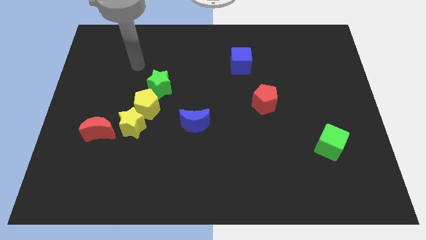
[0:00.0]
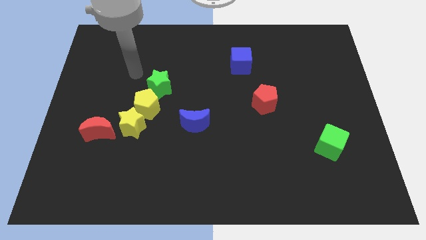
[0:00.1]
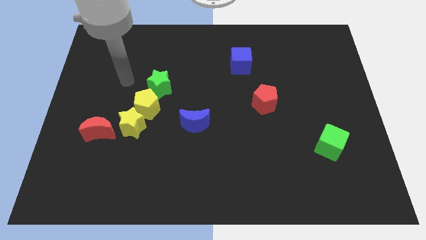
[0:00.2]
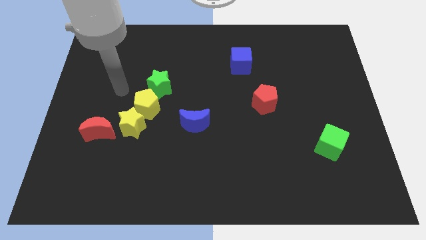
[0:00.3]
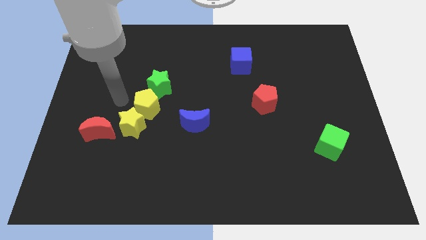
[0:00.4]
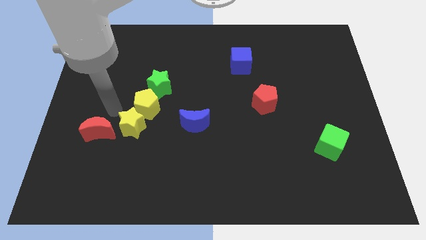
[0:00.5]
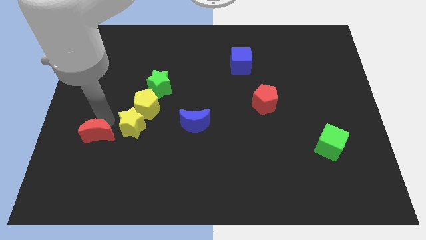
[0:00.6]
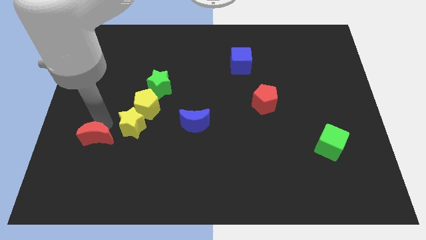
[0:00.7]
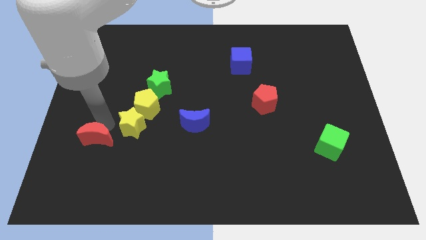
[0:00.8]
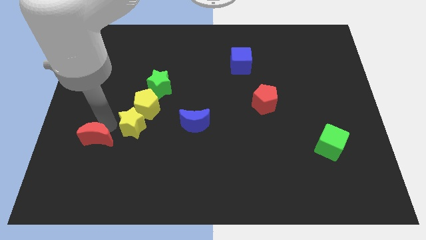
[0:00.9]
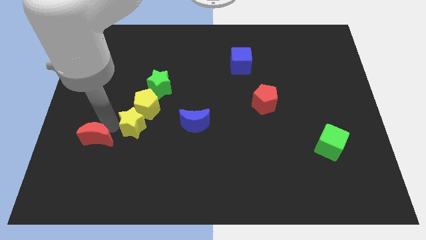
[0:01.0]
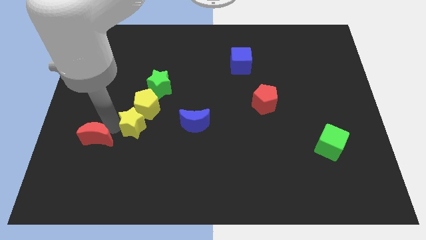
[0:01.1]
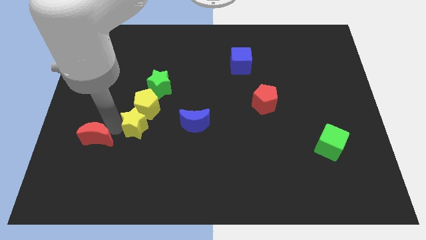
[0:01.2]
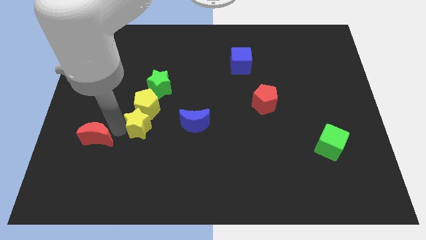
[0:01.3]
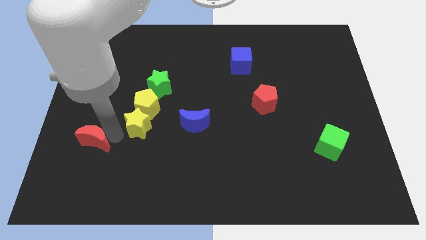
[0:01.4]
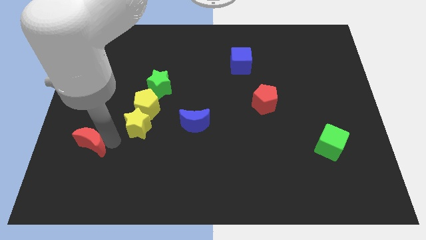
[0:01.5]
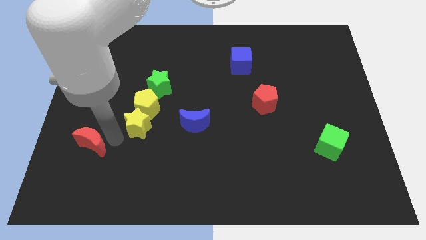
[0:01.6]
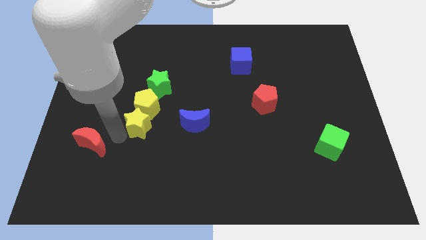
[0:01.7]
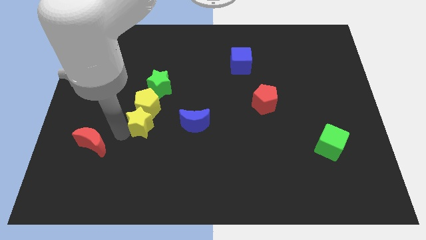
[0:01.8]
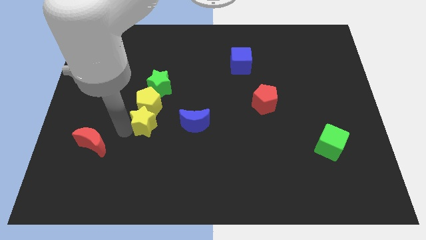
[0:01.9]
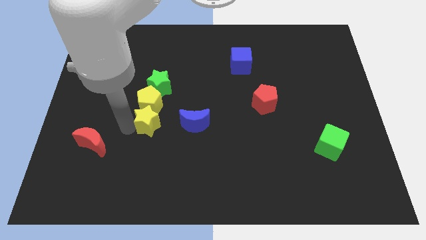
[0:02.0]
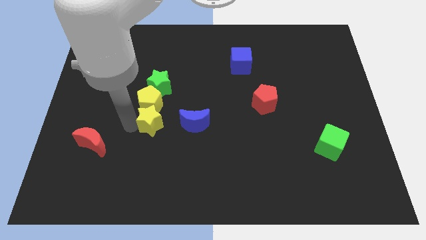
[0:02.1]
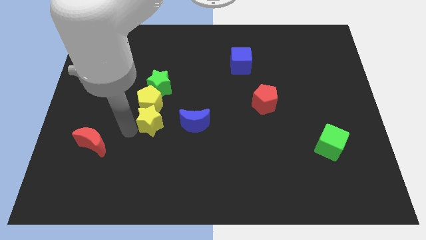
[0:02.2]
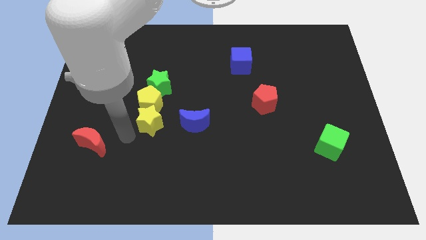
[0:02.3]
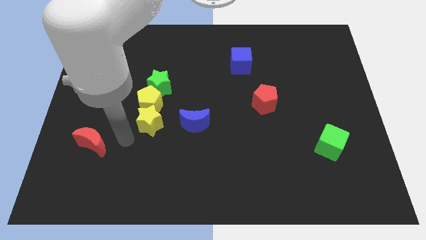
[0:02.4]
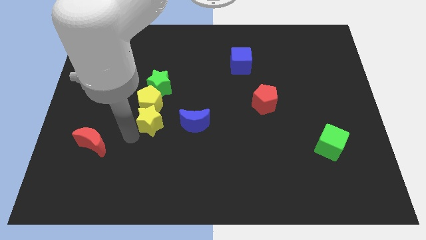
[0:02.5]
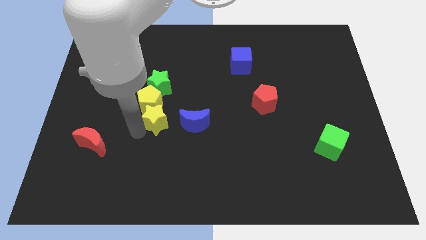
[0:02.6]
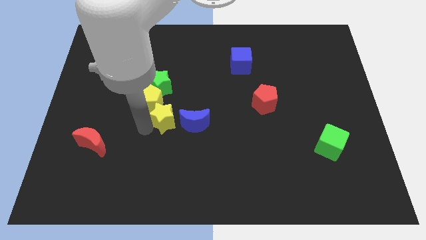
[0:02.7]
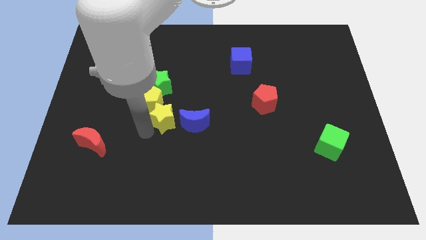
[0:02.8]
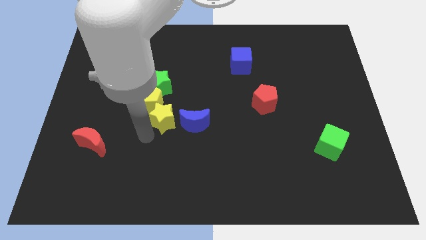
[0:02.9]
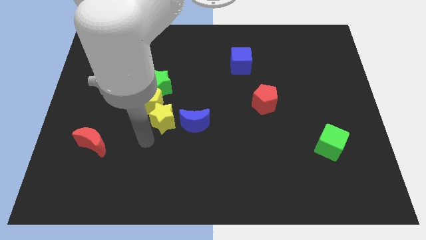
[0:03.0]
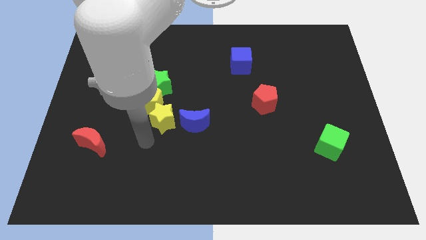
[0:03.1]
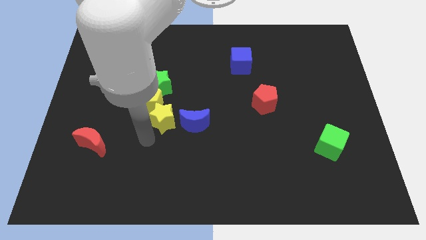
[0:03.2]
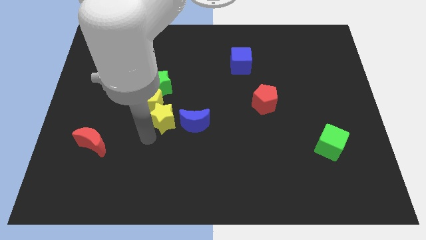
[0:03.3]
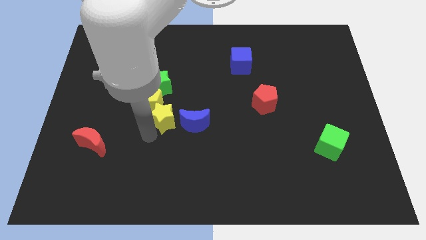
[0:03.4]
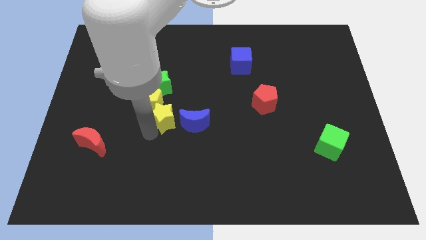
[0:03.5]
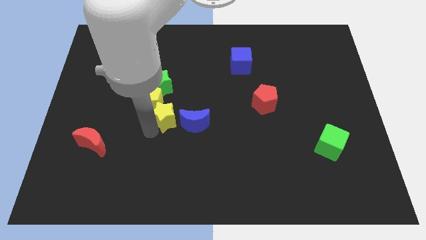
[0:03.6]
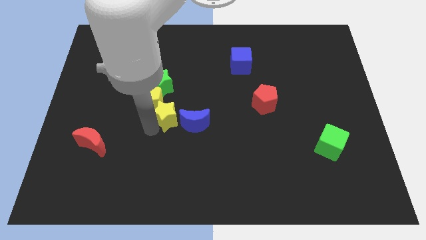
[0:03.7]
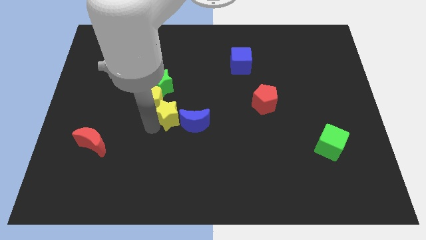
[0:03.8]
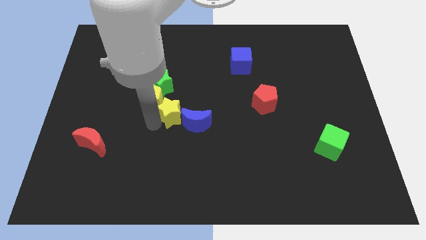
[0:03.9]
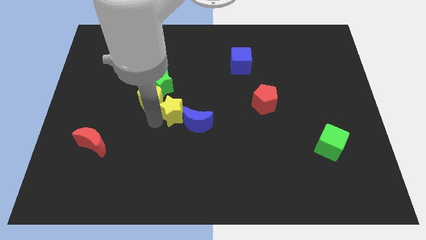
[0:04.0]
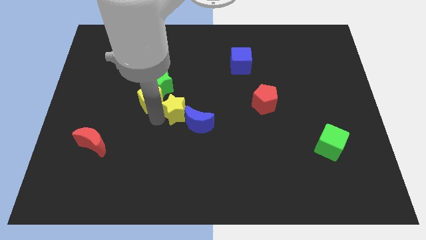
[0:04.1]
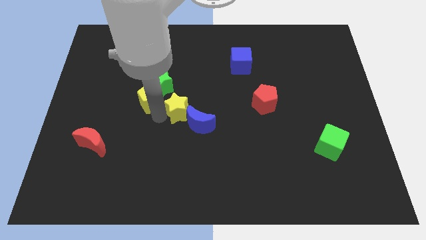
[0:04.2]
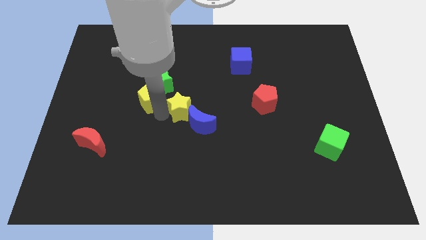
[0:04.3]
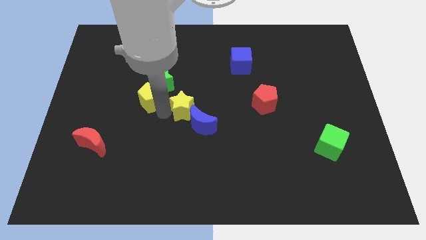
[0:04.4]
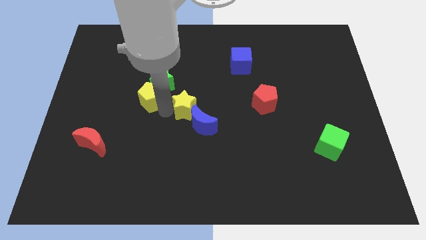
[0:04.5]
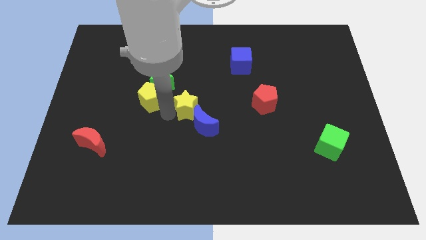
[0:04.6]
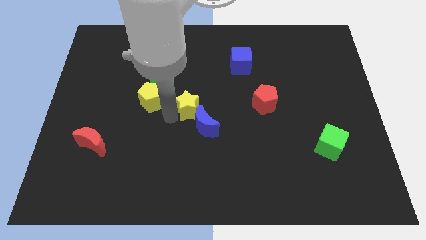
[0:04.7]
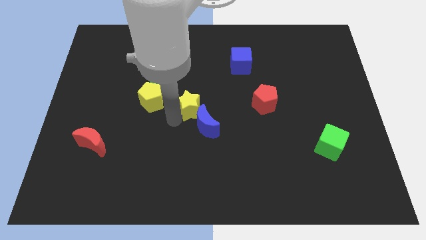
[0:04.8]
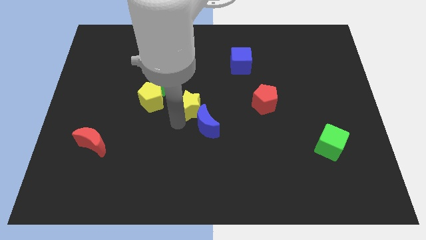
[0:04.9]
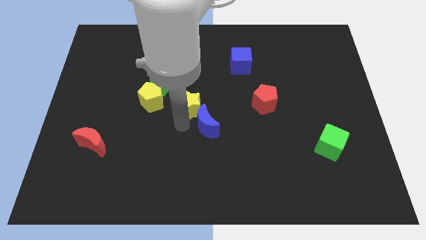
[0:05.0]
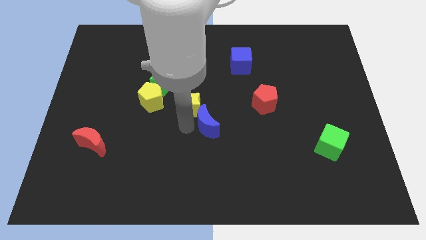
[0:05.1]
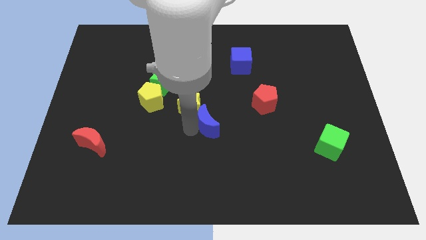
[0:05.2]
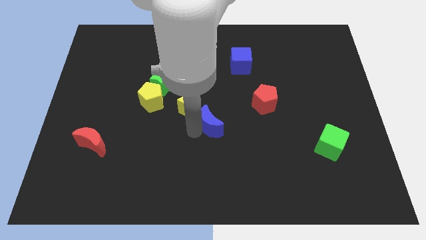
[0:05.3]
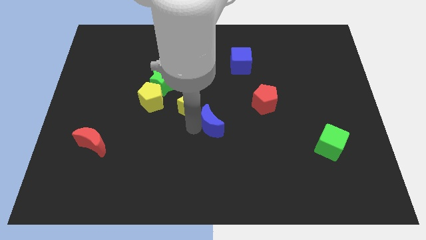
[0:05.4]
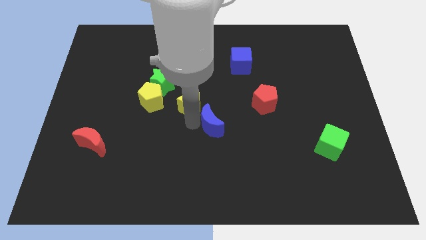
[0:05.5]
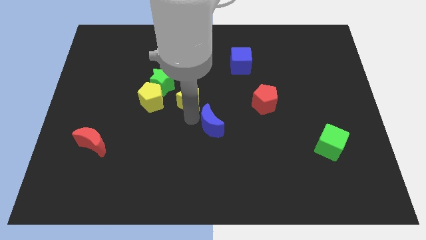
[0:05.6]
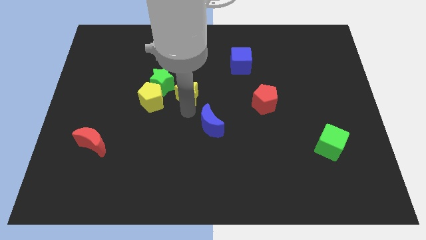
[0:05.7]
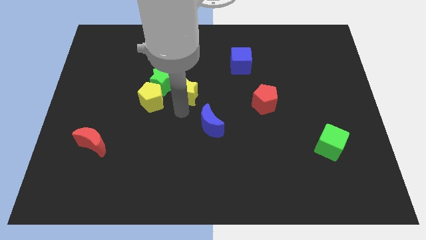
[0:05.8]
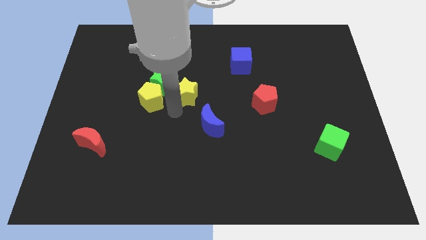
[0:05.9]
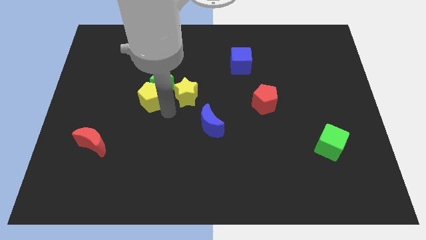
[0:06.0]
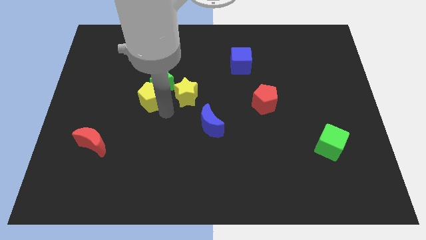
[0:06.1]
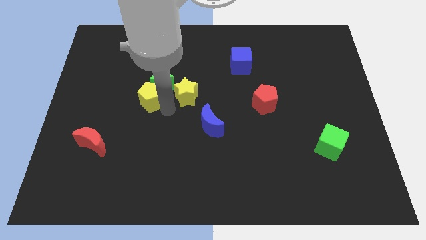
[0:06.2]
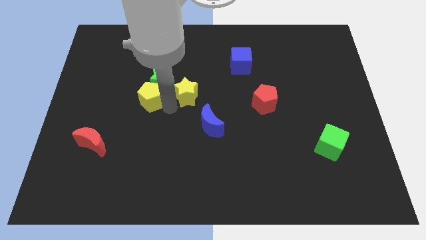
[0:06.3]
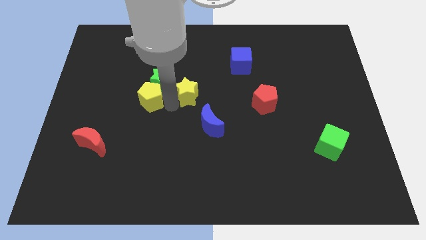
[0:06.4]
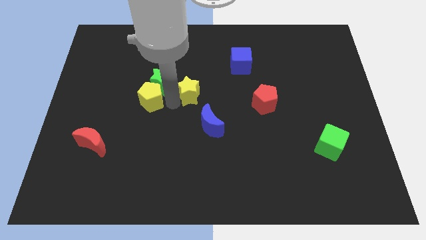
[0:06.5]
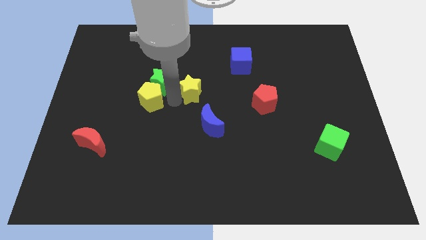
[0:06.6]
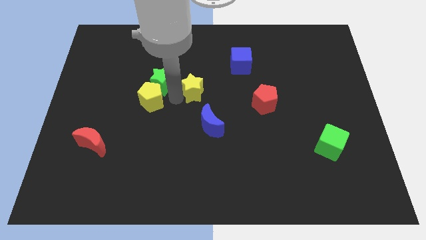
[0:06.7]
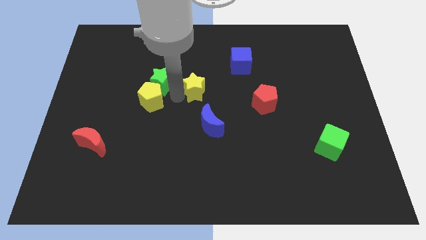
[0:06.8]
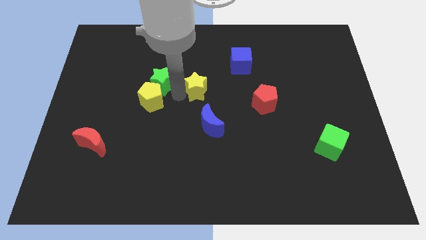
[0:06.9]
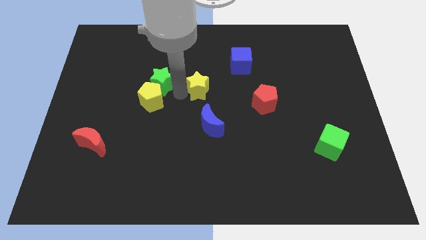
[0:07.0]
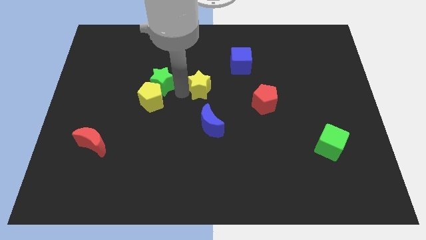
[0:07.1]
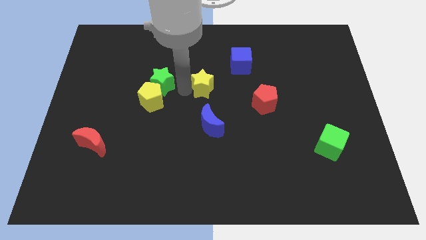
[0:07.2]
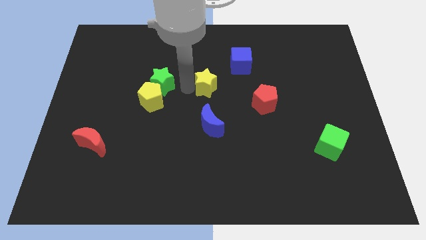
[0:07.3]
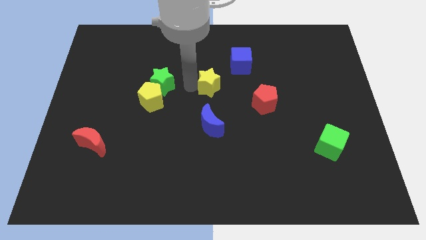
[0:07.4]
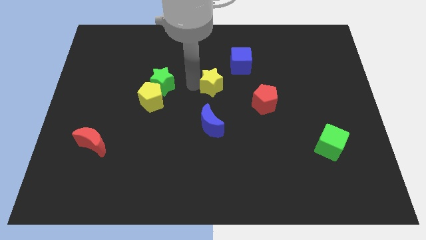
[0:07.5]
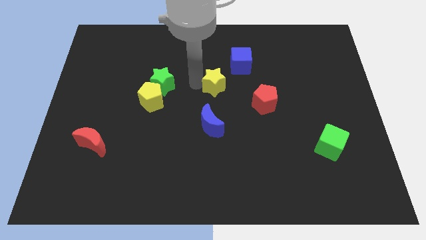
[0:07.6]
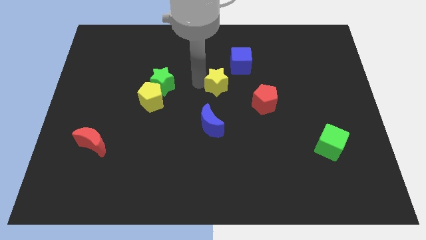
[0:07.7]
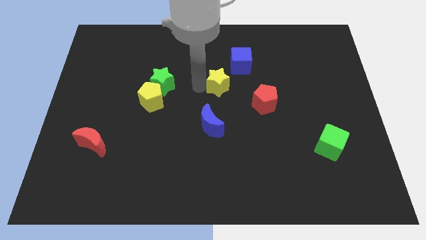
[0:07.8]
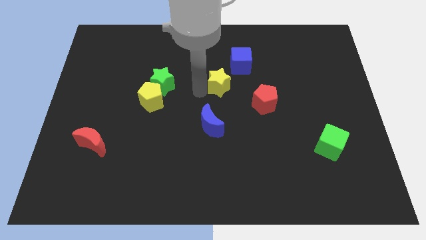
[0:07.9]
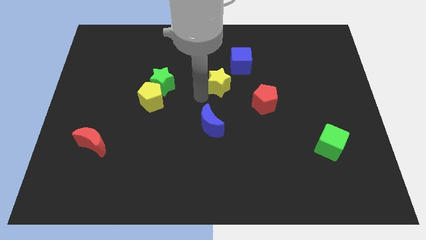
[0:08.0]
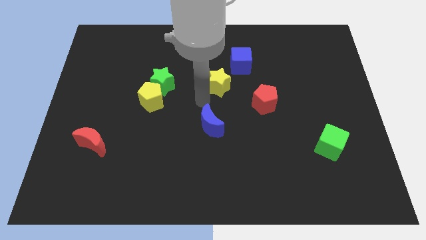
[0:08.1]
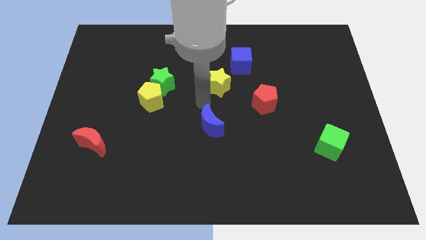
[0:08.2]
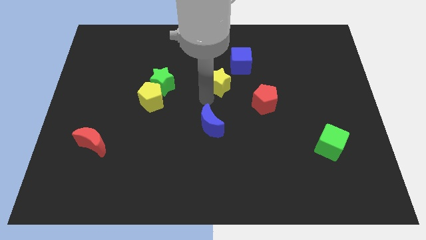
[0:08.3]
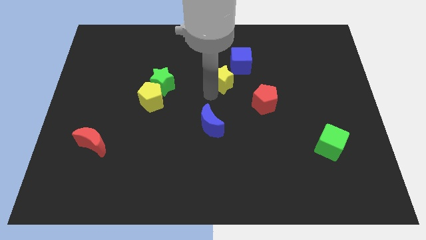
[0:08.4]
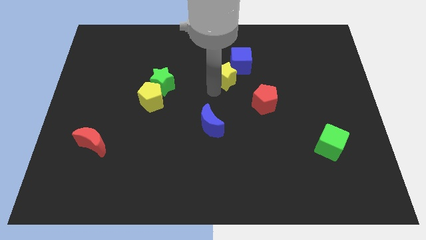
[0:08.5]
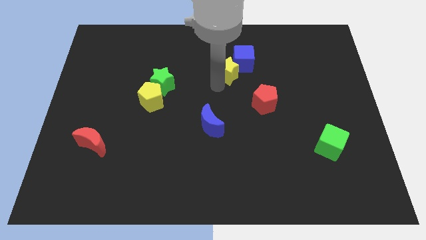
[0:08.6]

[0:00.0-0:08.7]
put the yellow star to the blue cube
